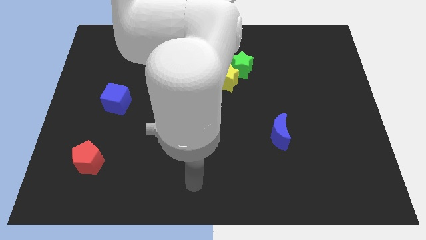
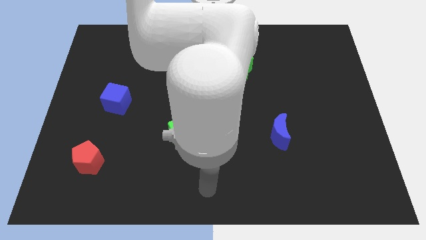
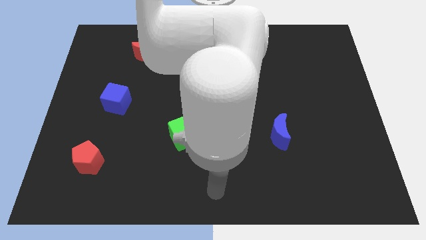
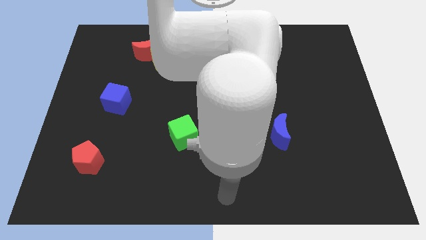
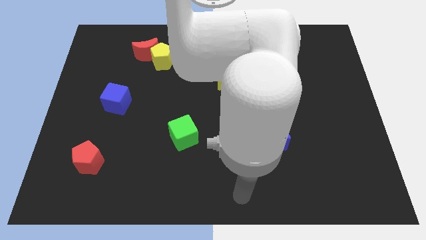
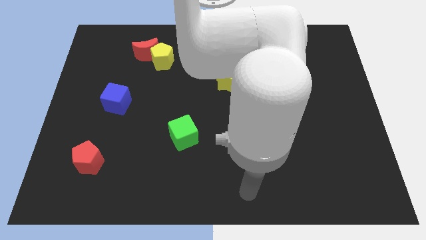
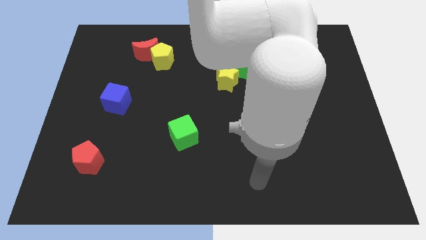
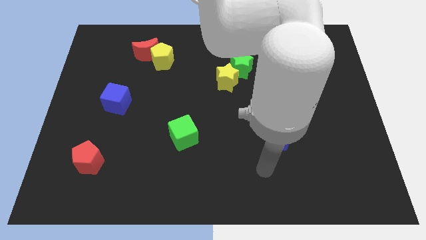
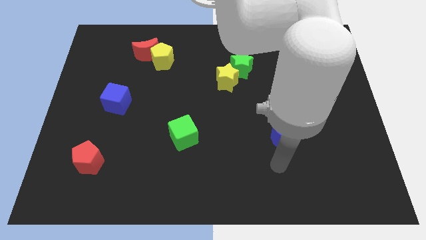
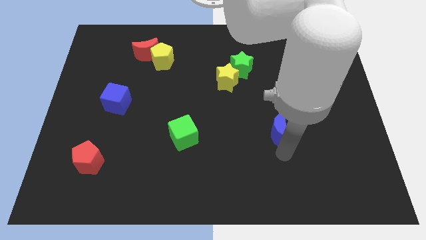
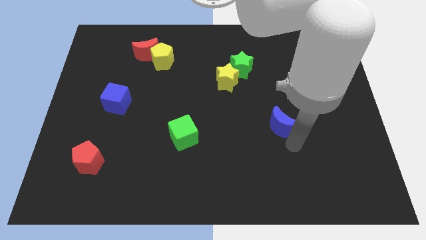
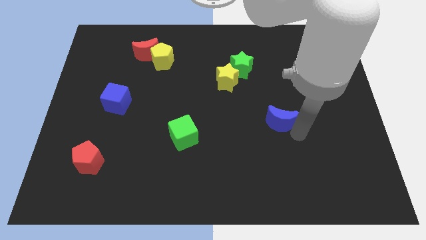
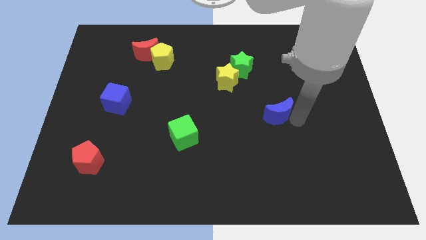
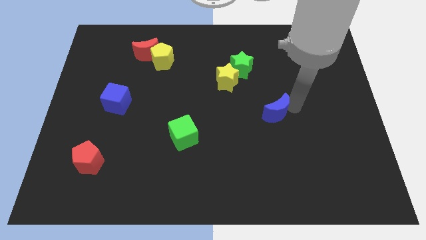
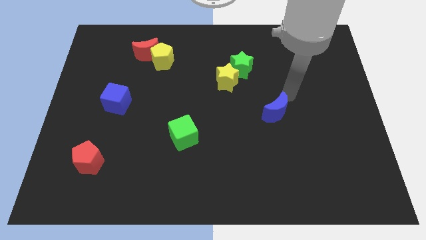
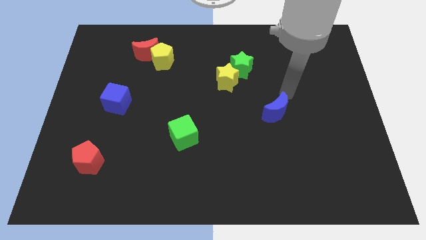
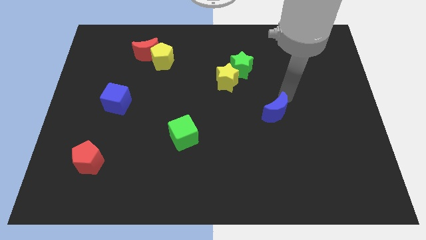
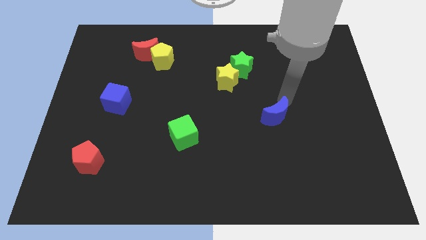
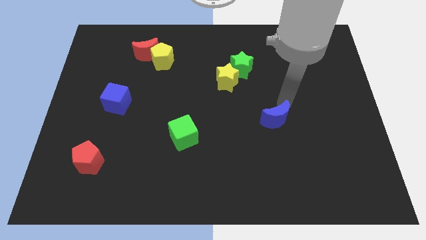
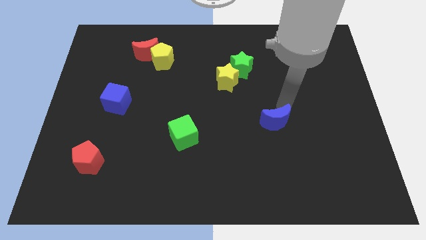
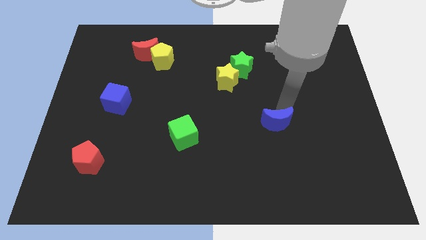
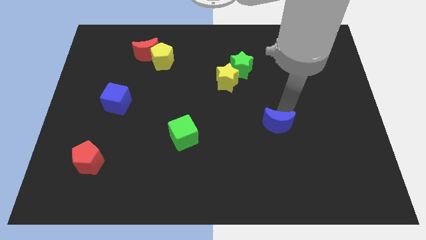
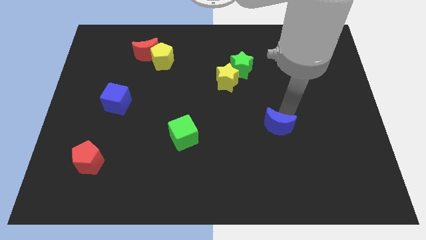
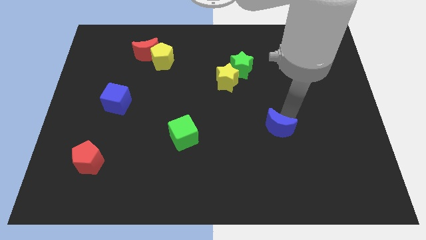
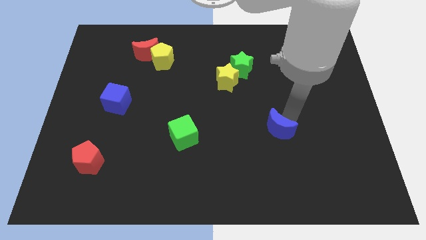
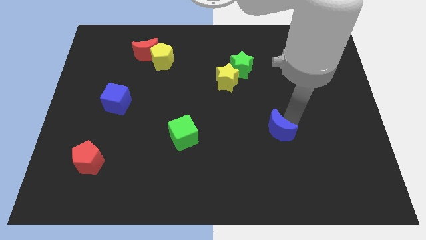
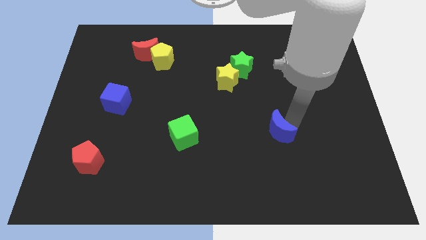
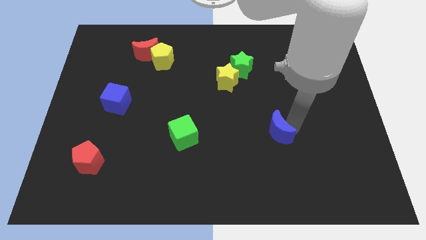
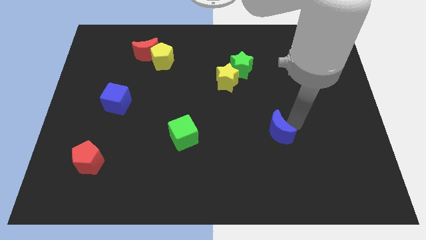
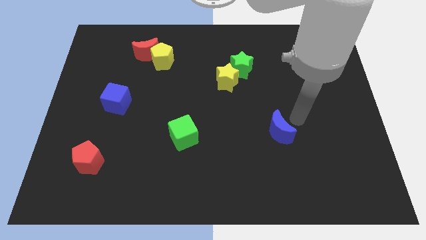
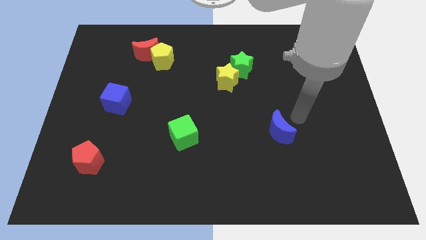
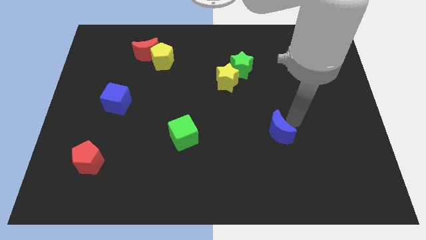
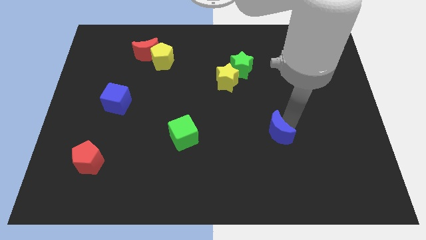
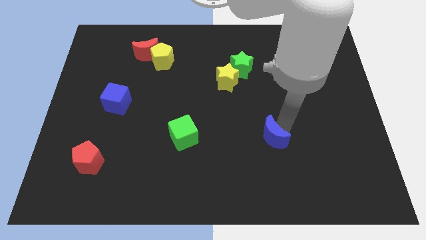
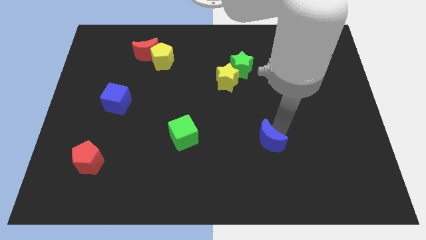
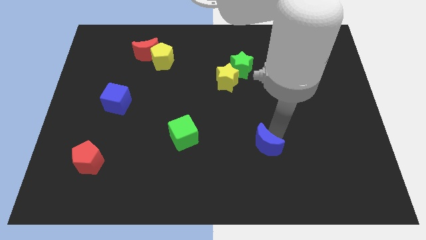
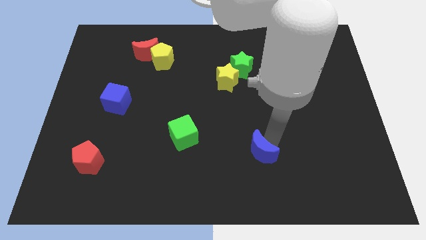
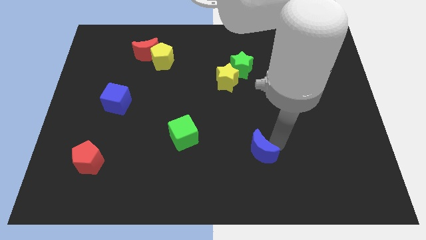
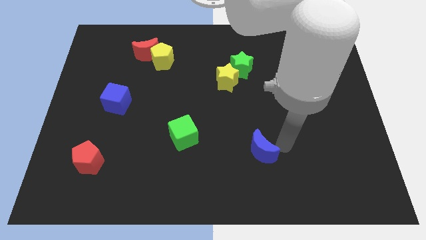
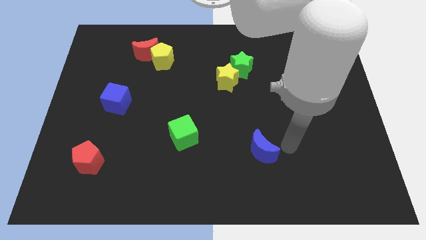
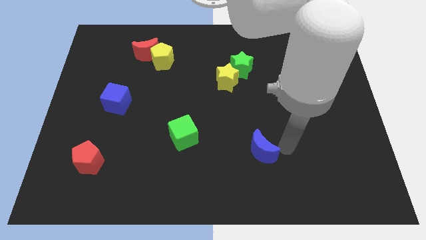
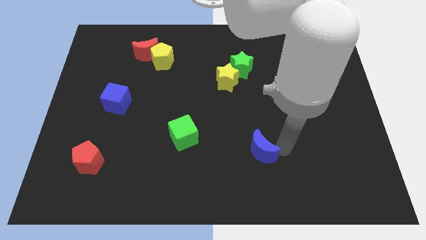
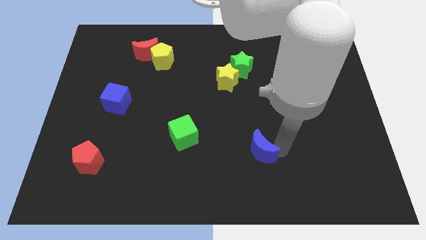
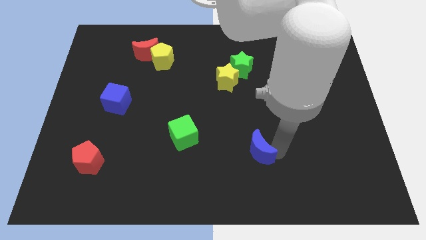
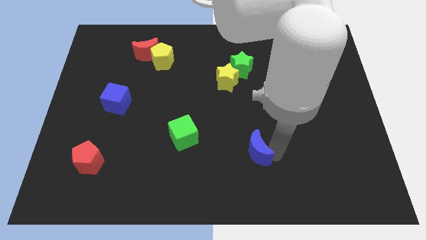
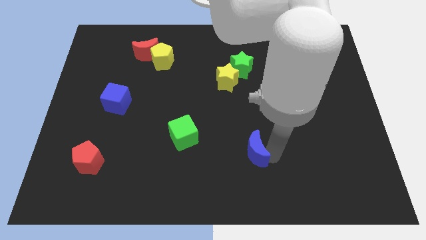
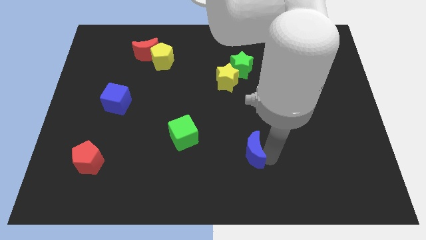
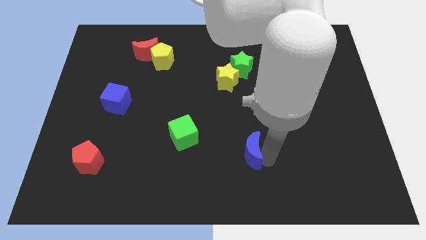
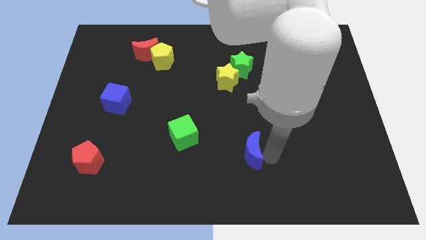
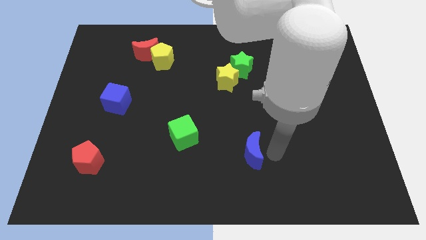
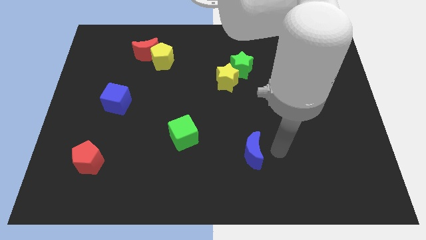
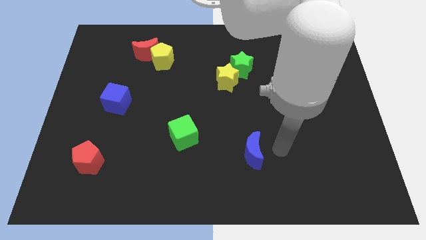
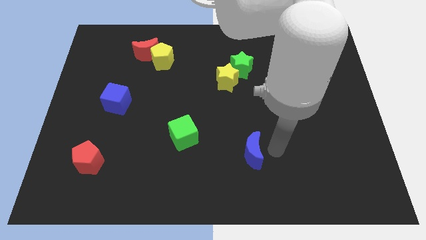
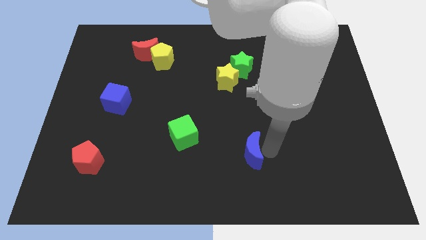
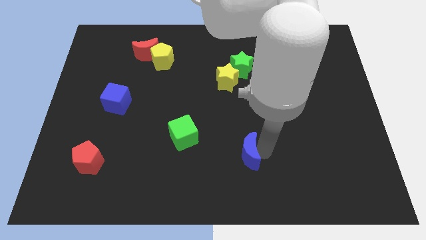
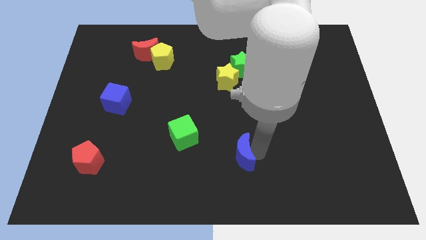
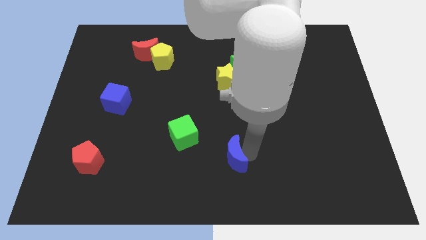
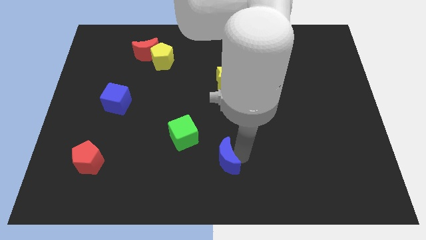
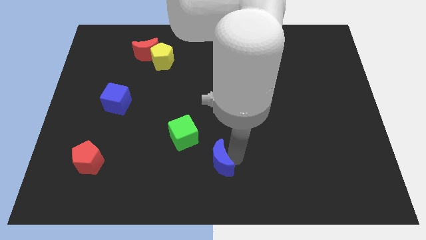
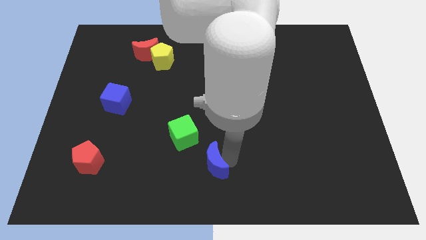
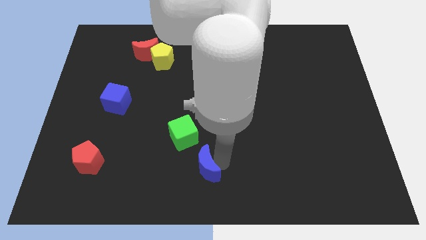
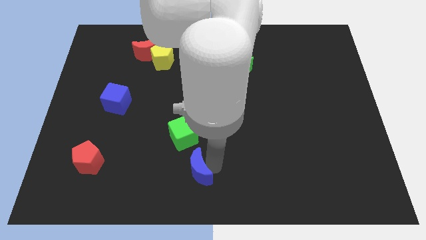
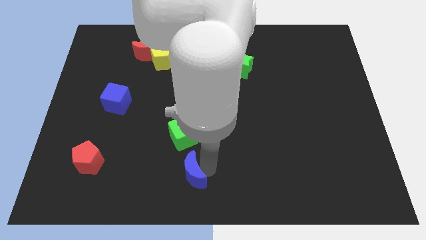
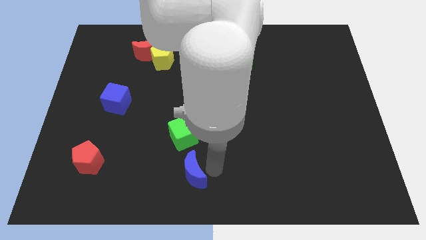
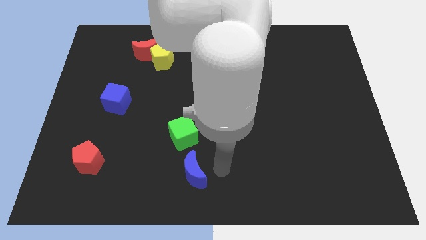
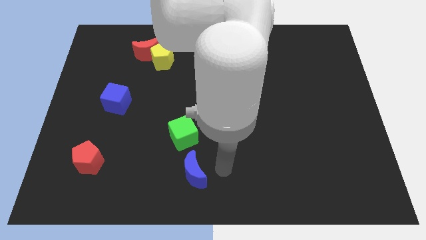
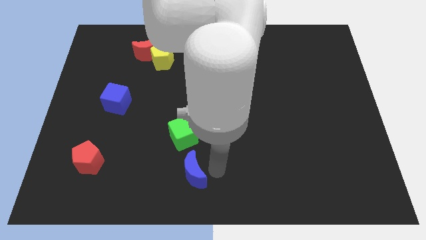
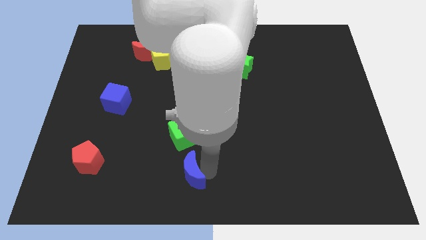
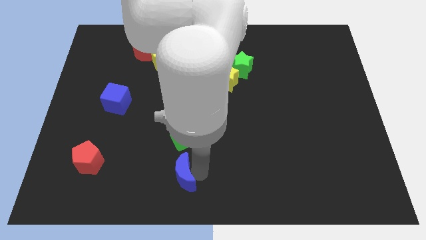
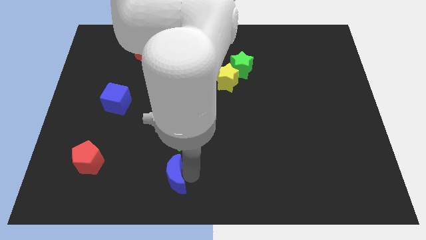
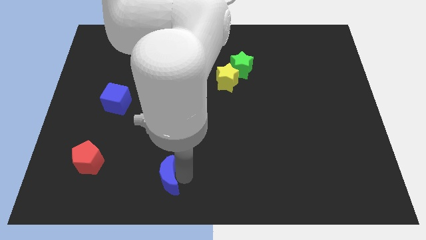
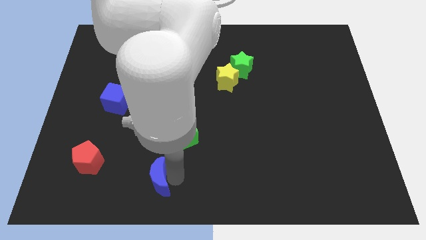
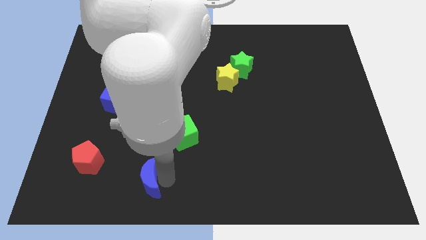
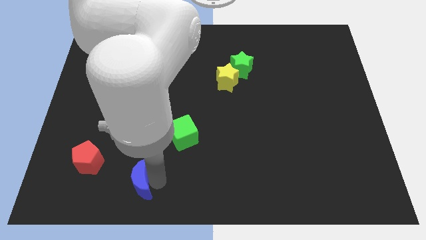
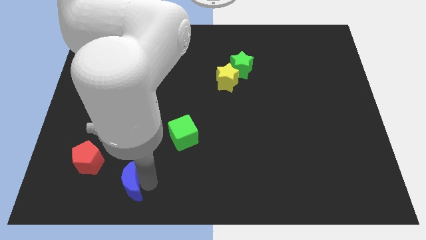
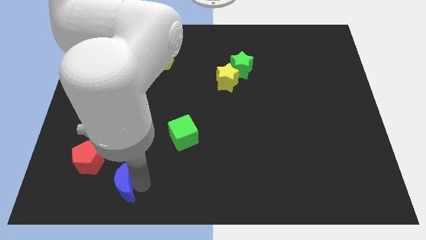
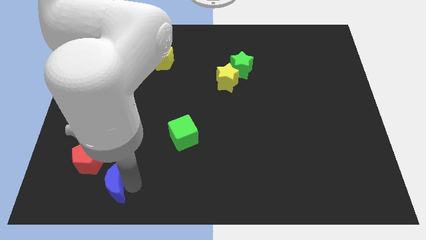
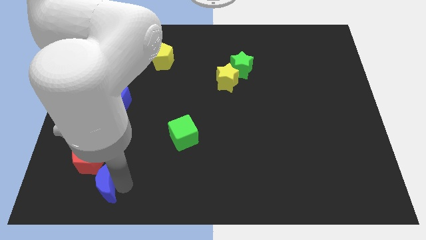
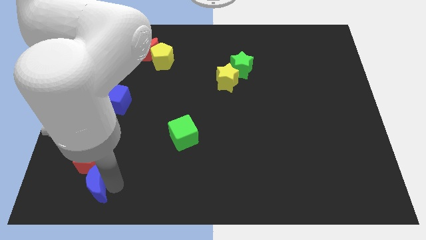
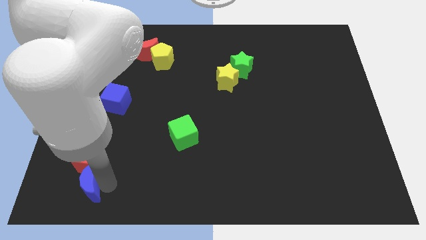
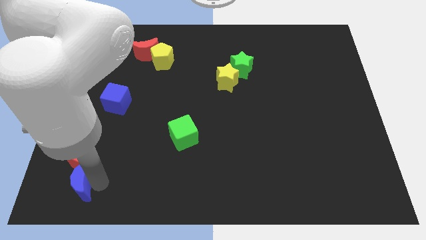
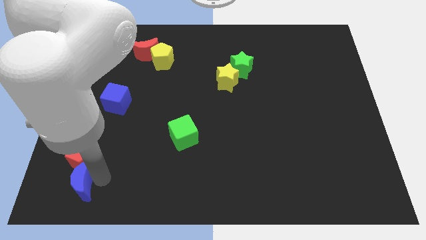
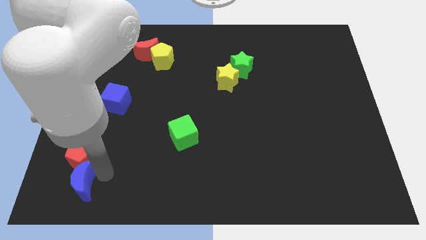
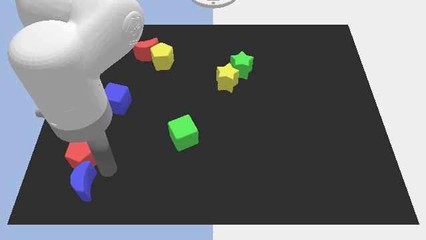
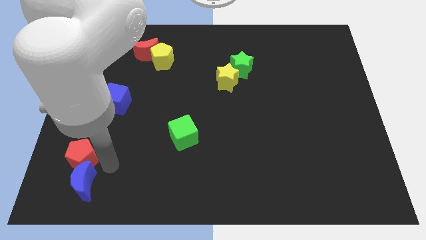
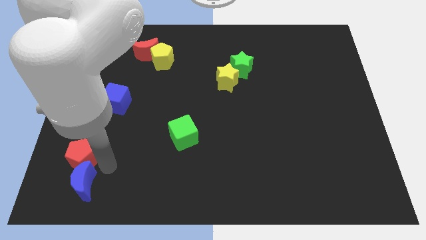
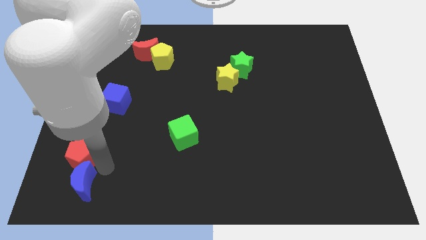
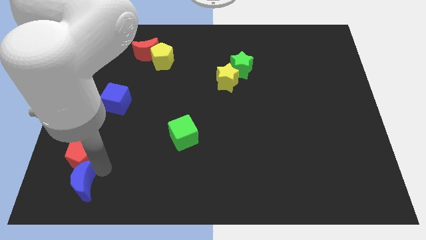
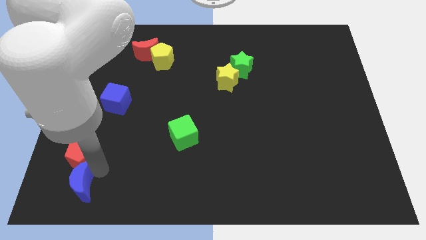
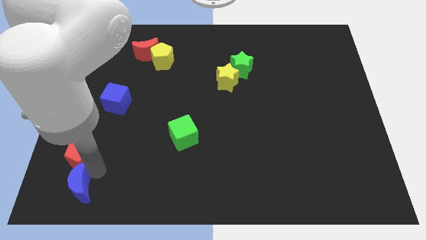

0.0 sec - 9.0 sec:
push the blue moon to the lower left corner
